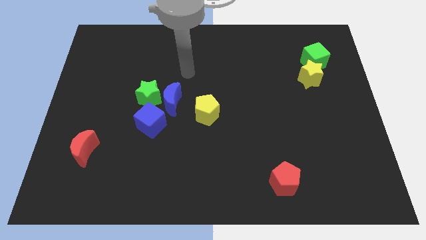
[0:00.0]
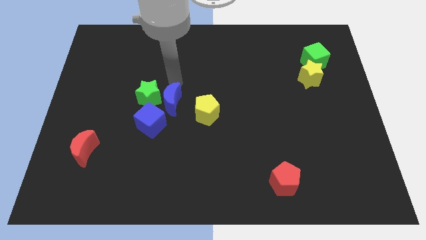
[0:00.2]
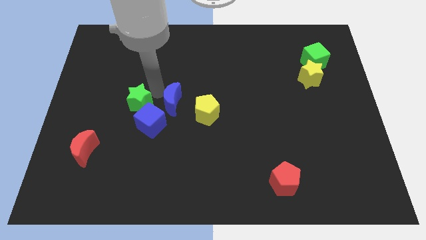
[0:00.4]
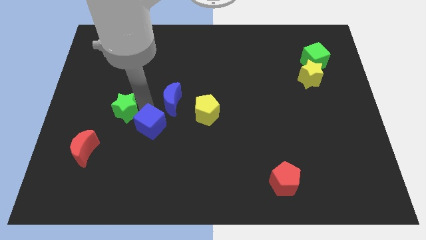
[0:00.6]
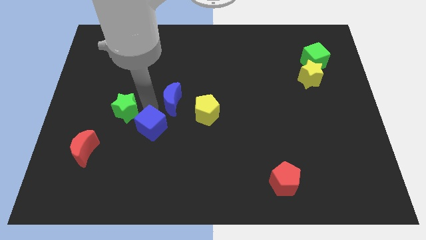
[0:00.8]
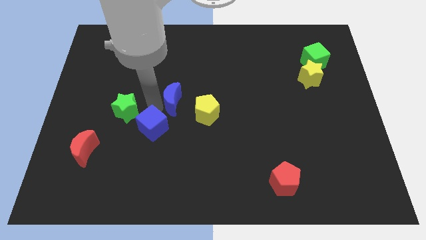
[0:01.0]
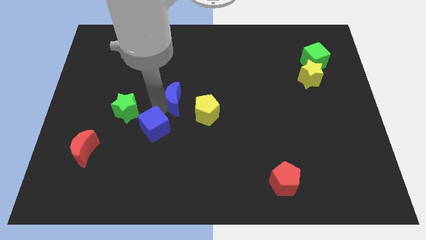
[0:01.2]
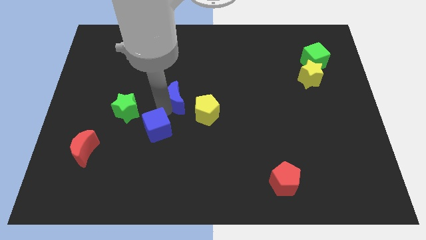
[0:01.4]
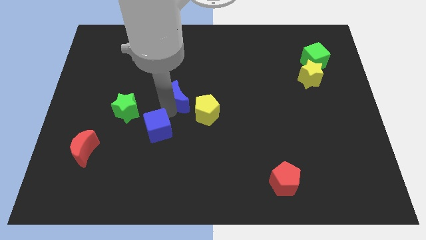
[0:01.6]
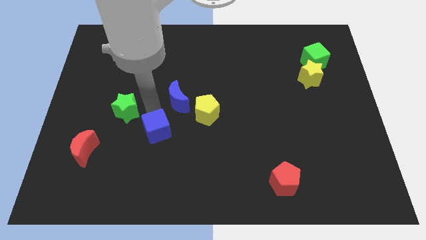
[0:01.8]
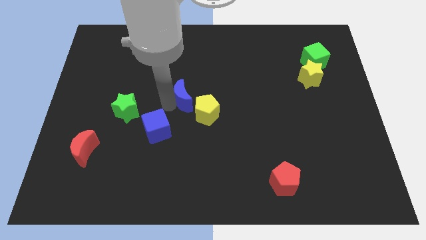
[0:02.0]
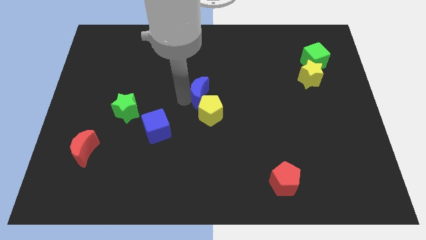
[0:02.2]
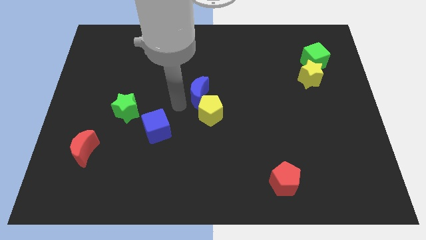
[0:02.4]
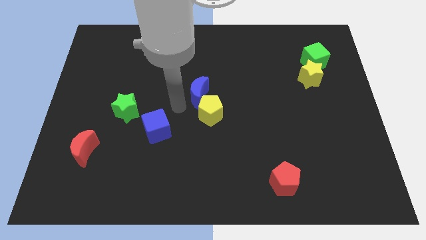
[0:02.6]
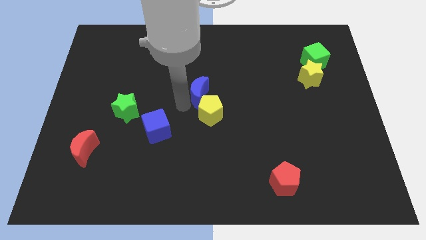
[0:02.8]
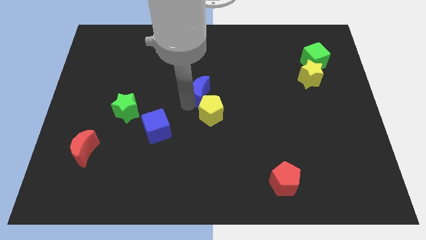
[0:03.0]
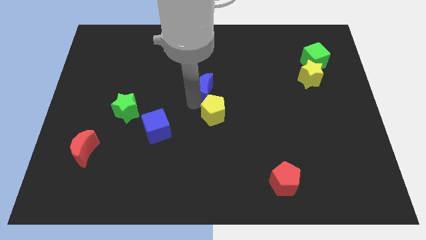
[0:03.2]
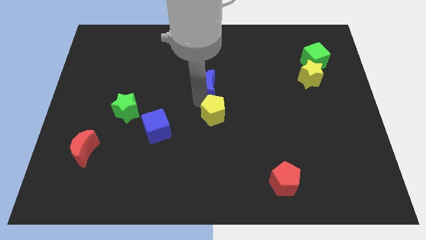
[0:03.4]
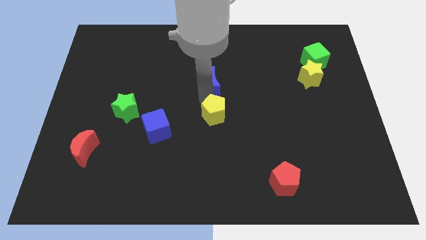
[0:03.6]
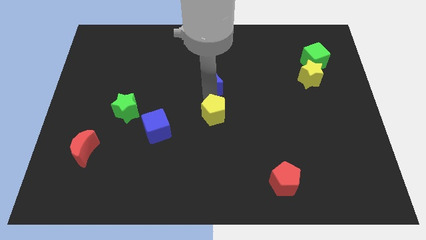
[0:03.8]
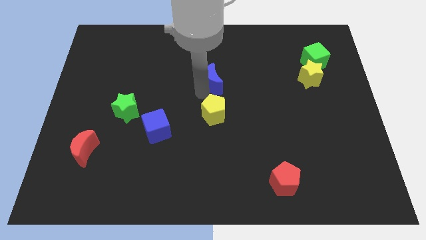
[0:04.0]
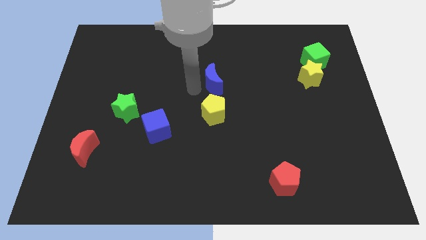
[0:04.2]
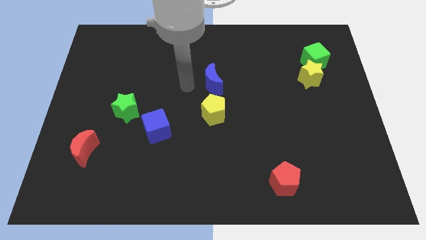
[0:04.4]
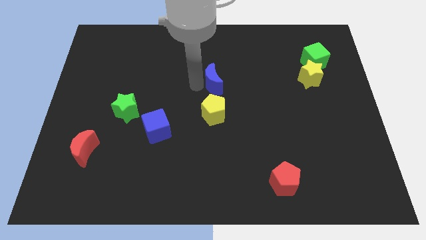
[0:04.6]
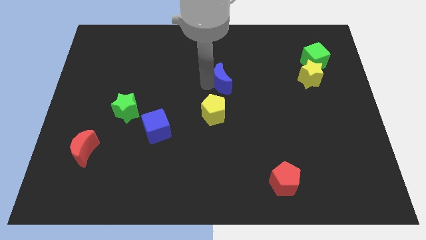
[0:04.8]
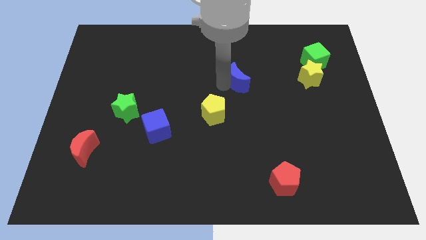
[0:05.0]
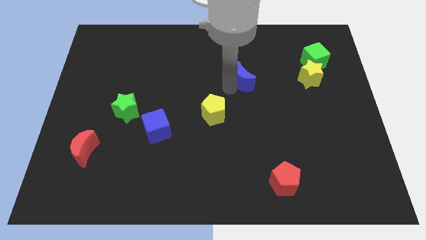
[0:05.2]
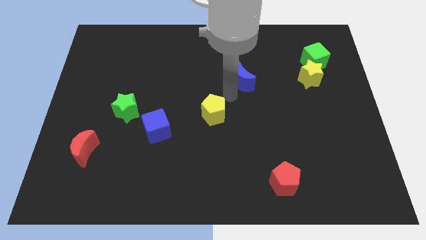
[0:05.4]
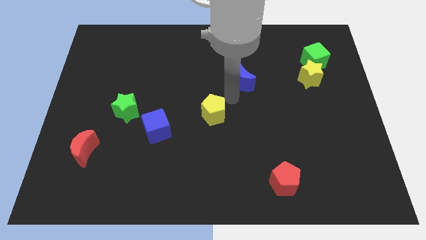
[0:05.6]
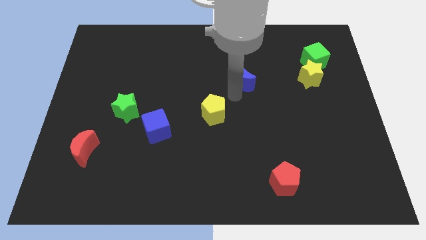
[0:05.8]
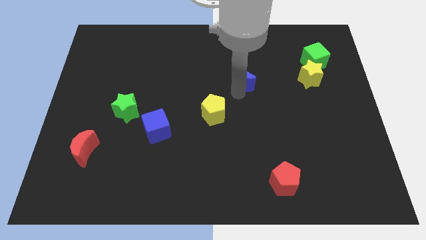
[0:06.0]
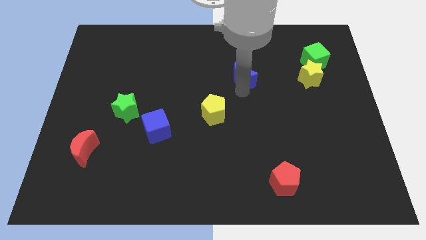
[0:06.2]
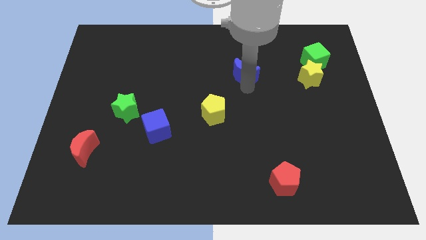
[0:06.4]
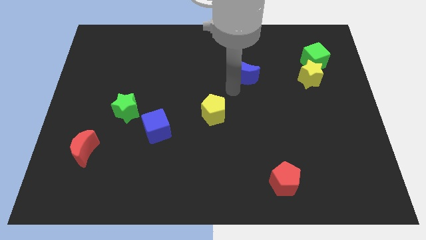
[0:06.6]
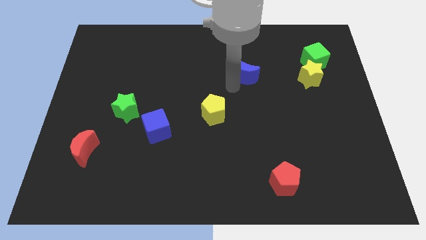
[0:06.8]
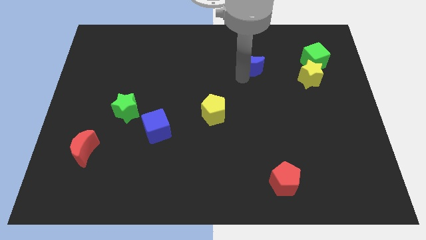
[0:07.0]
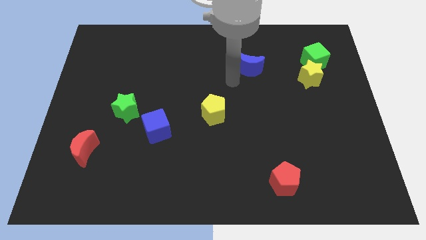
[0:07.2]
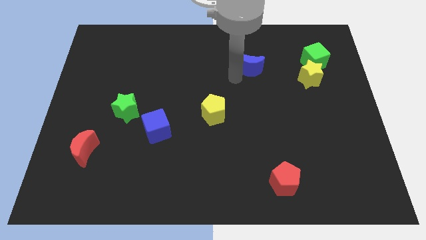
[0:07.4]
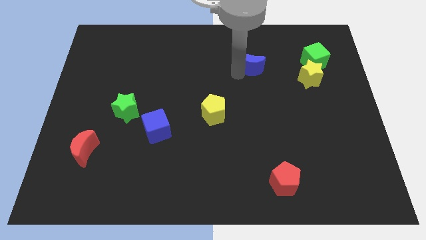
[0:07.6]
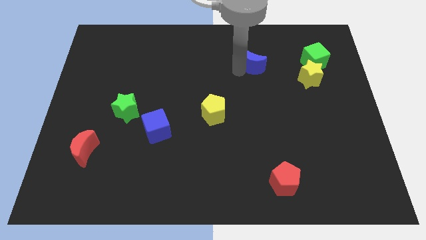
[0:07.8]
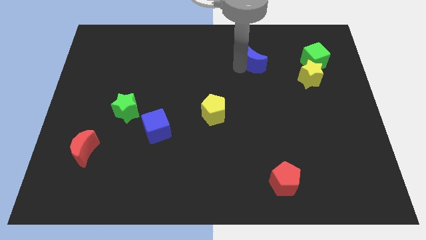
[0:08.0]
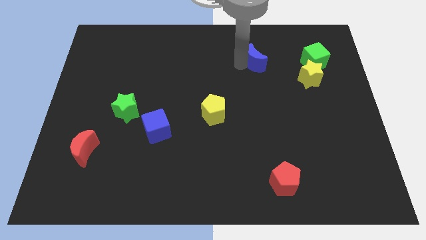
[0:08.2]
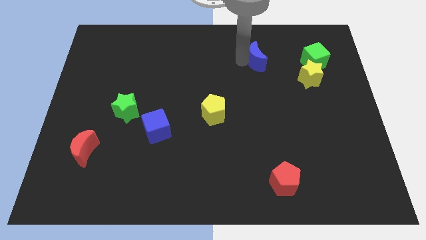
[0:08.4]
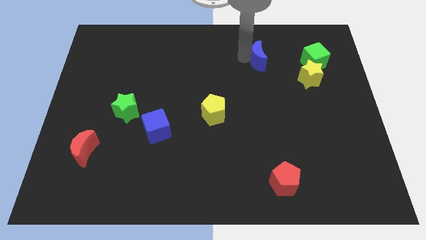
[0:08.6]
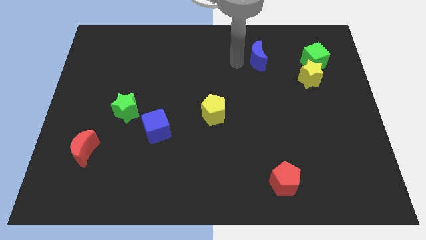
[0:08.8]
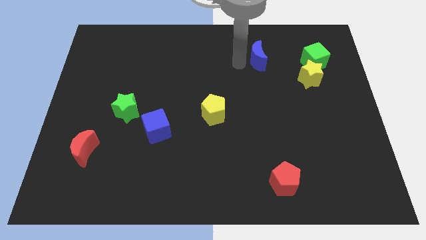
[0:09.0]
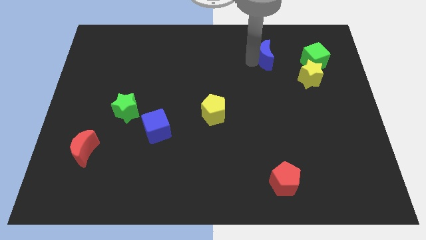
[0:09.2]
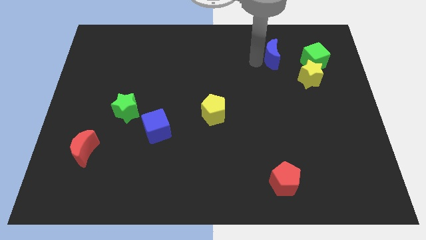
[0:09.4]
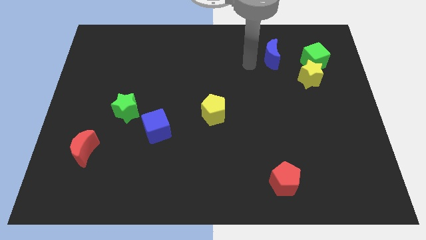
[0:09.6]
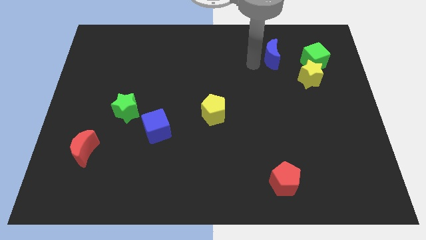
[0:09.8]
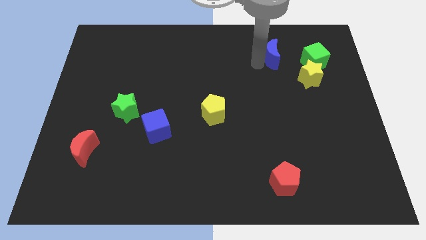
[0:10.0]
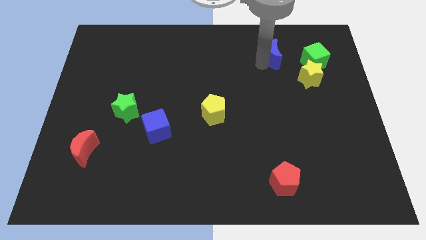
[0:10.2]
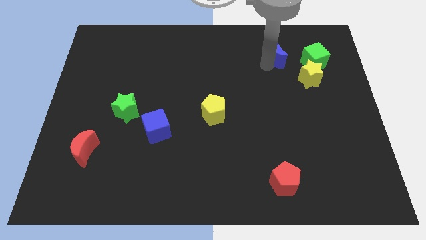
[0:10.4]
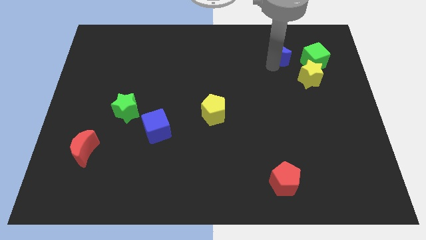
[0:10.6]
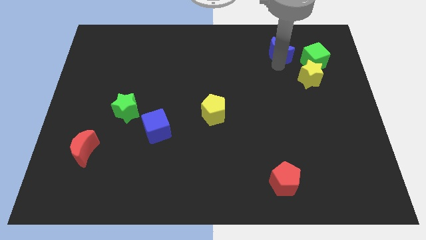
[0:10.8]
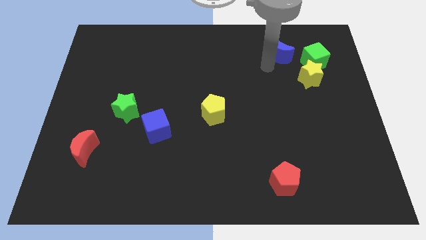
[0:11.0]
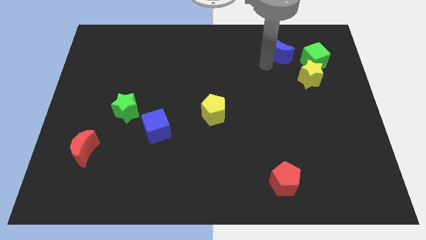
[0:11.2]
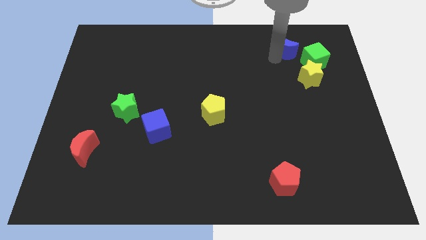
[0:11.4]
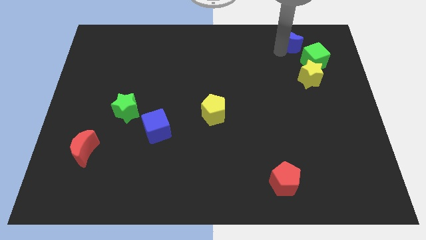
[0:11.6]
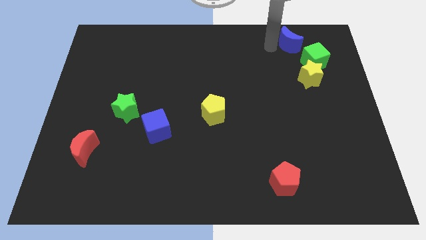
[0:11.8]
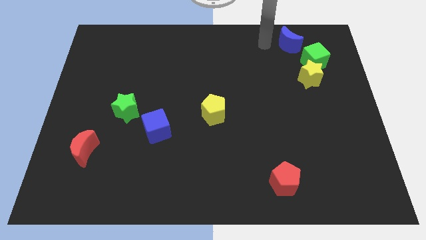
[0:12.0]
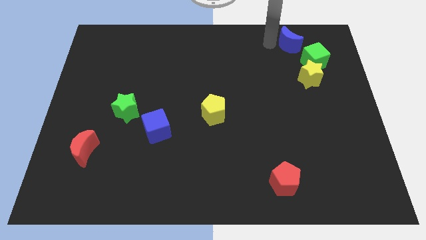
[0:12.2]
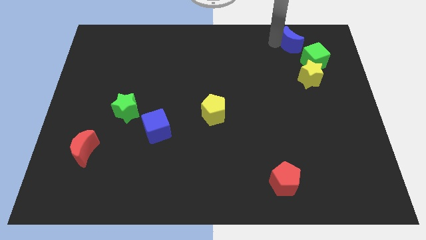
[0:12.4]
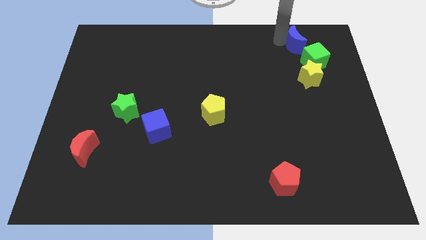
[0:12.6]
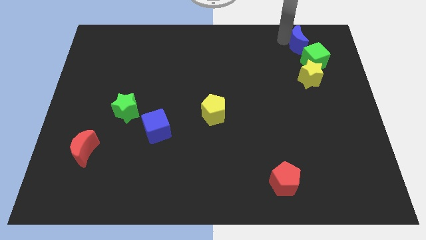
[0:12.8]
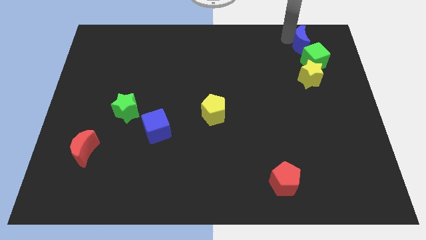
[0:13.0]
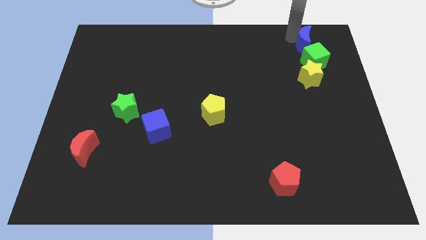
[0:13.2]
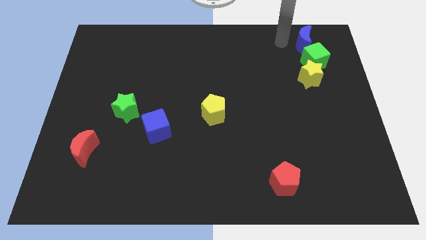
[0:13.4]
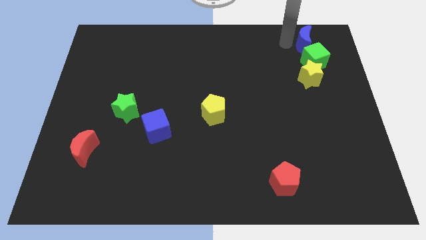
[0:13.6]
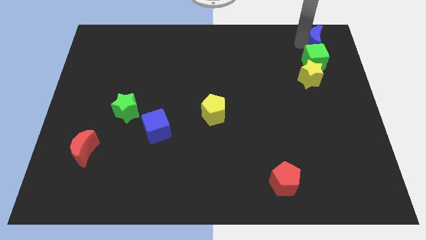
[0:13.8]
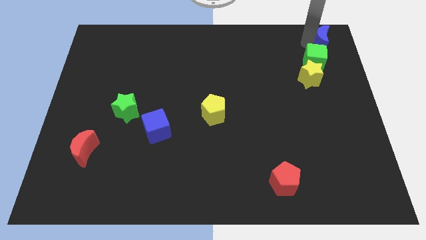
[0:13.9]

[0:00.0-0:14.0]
push the blue moon to the top right of the board
